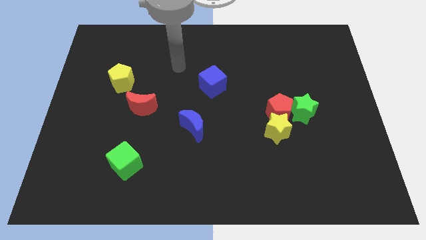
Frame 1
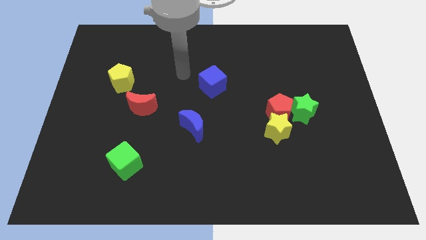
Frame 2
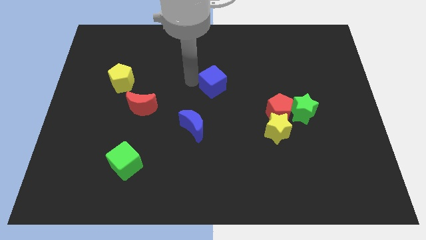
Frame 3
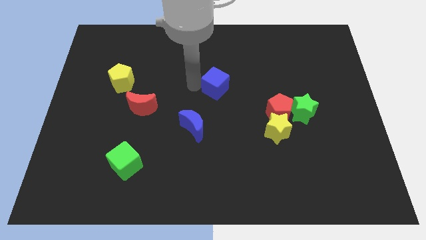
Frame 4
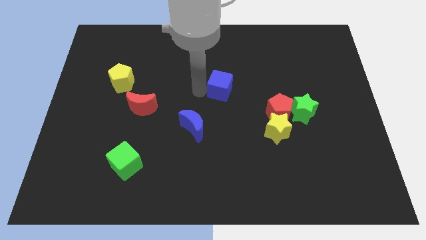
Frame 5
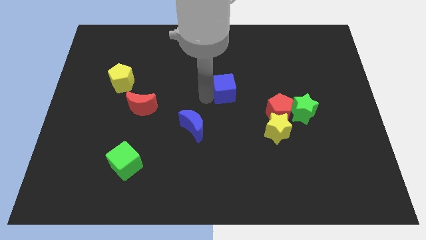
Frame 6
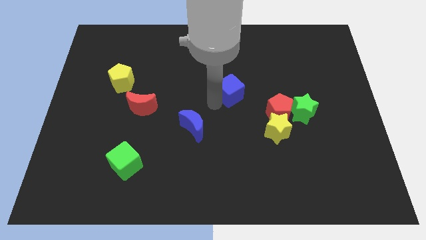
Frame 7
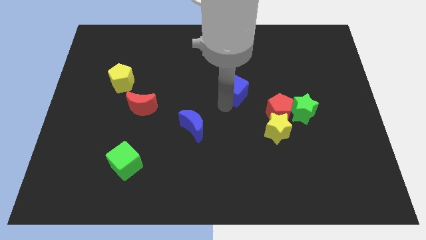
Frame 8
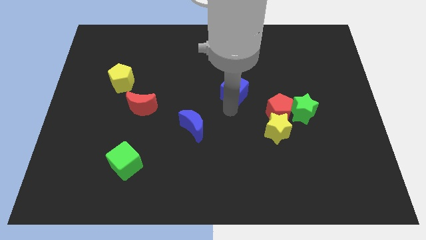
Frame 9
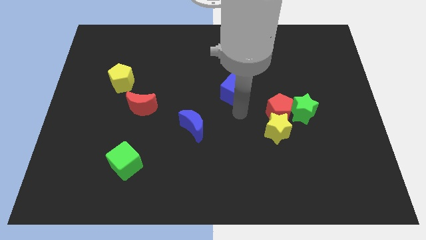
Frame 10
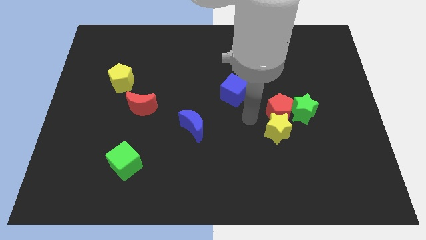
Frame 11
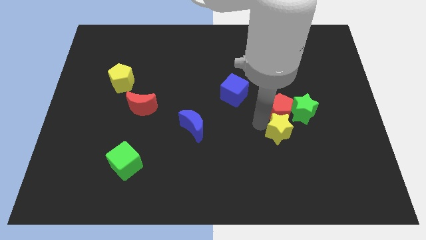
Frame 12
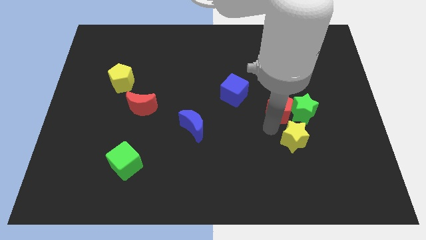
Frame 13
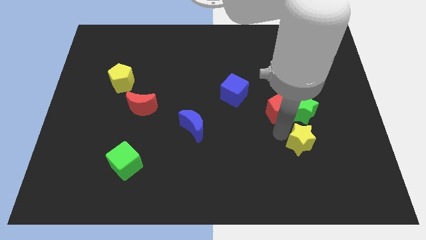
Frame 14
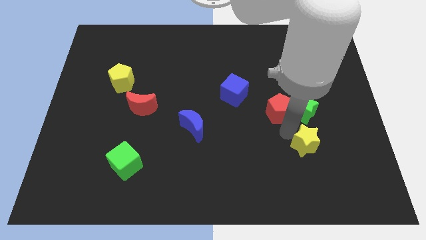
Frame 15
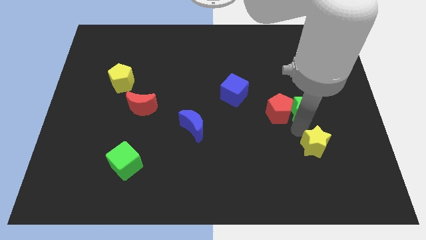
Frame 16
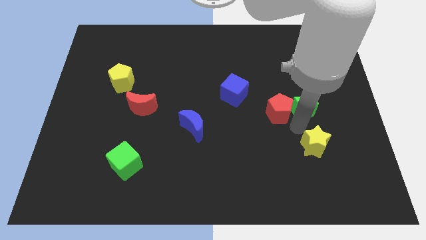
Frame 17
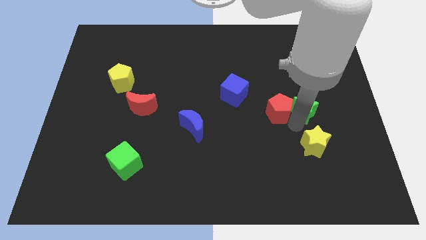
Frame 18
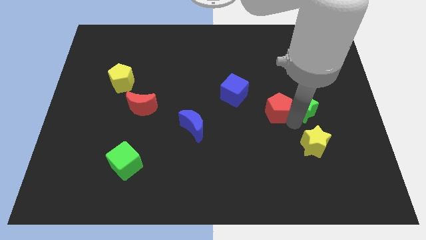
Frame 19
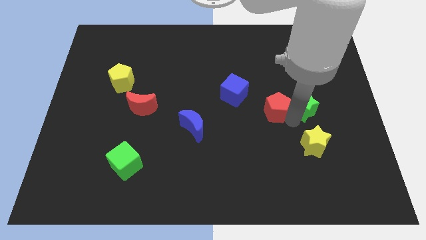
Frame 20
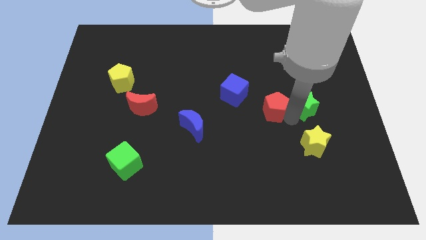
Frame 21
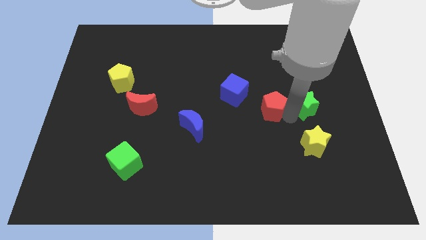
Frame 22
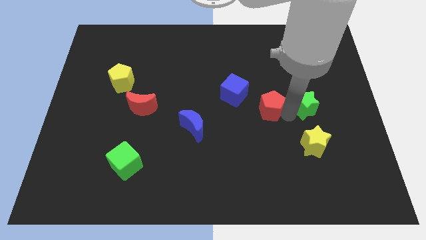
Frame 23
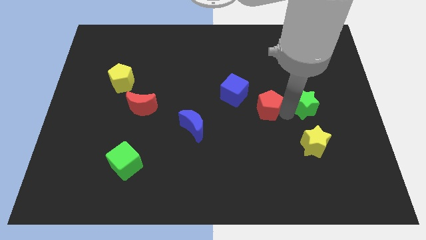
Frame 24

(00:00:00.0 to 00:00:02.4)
move the red pentagon away from the yellow star and green star

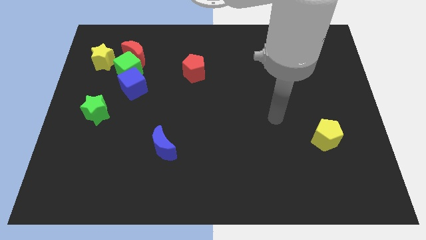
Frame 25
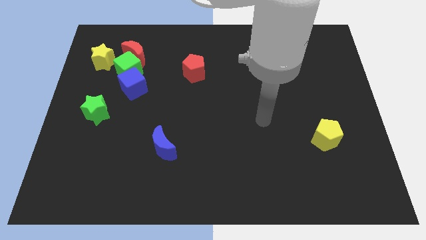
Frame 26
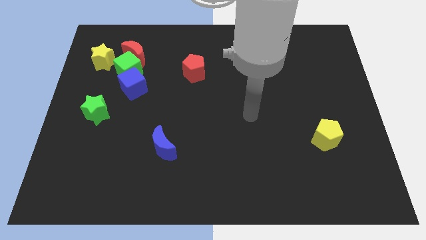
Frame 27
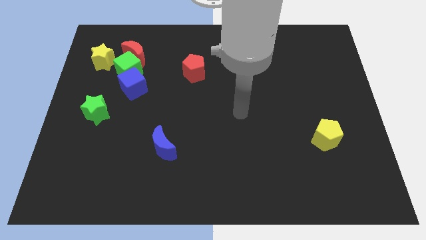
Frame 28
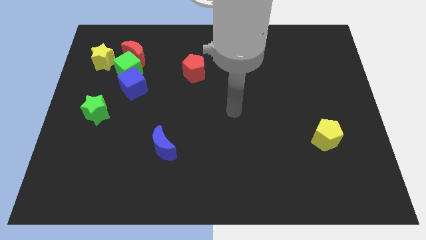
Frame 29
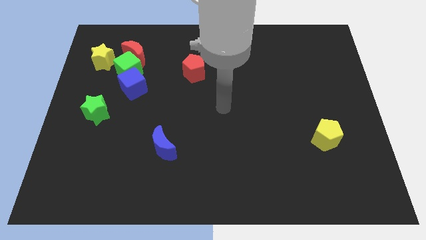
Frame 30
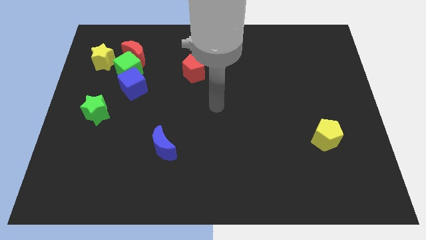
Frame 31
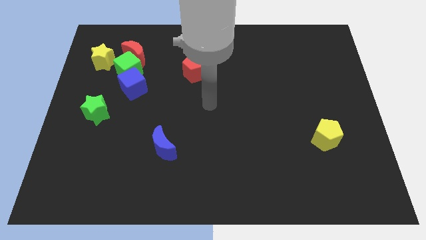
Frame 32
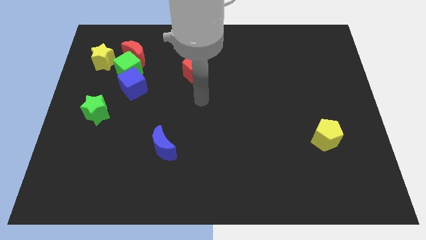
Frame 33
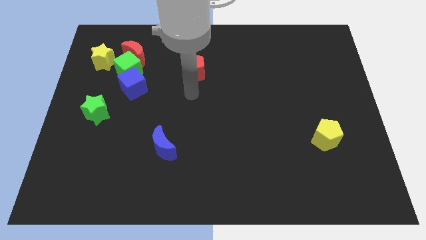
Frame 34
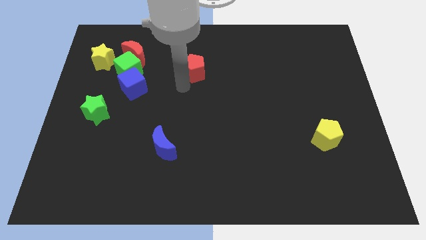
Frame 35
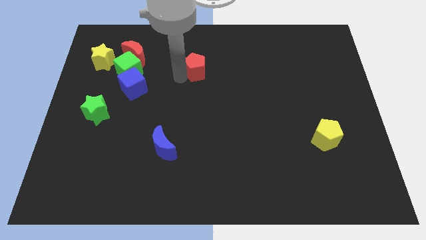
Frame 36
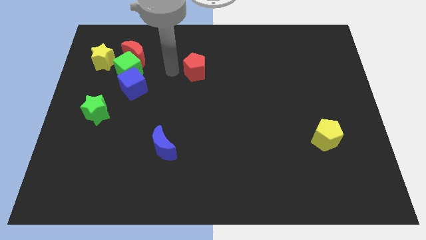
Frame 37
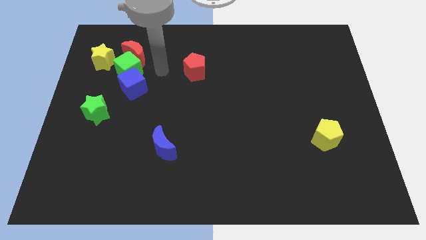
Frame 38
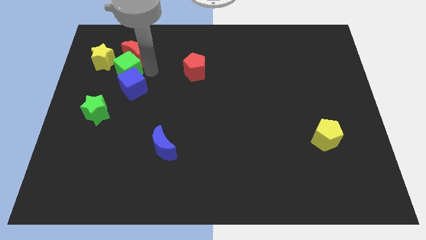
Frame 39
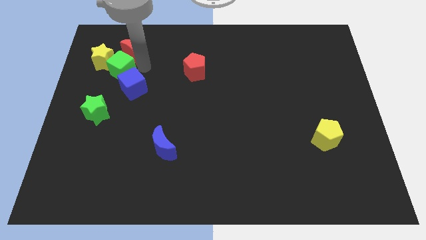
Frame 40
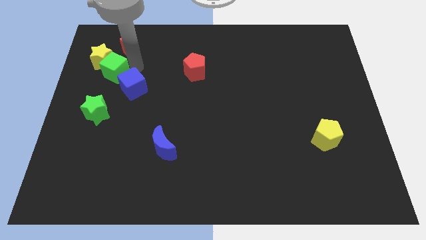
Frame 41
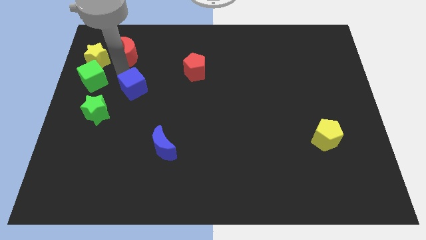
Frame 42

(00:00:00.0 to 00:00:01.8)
move the blue cube away from the green cube

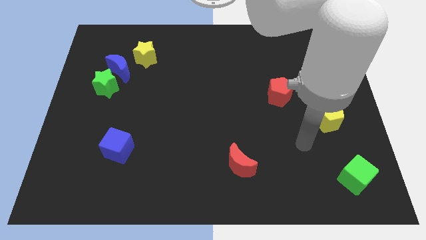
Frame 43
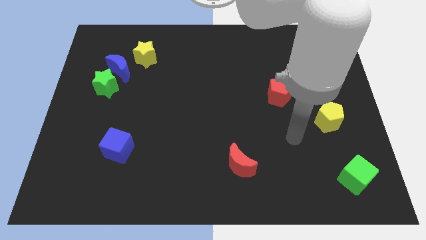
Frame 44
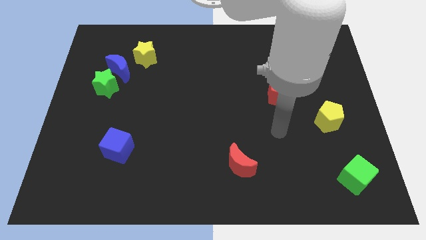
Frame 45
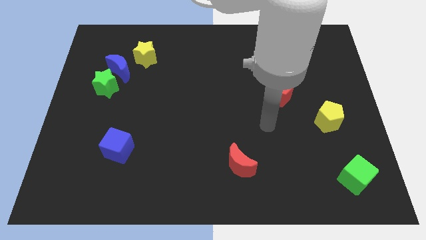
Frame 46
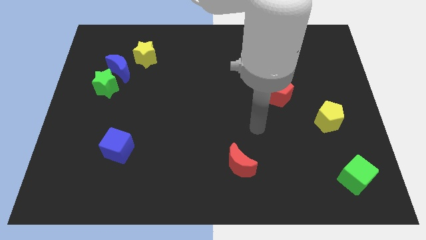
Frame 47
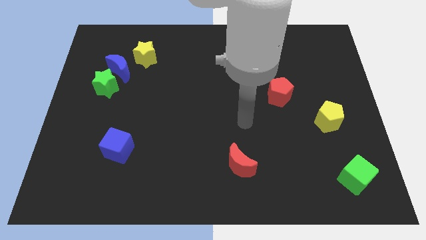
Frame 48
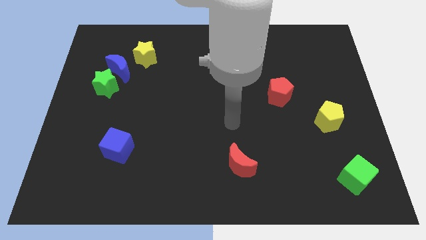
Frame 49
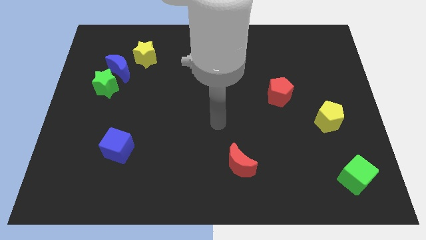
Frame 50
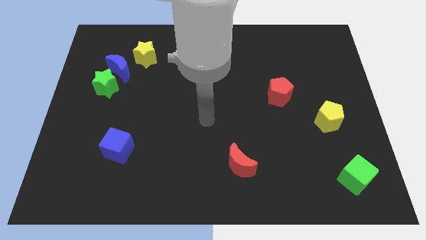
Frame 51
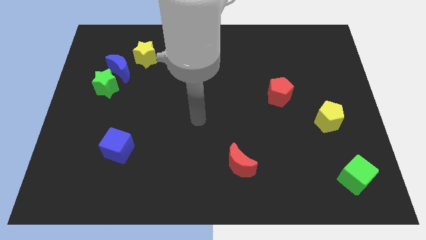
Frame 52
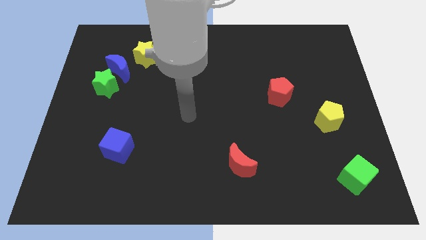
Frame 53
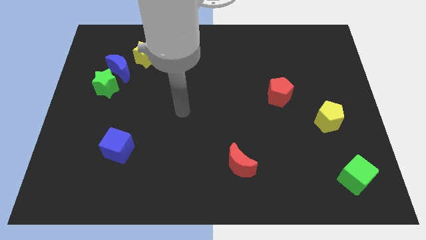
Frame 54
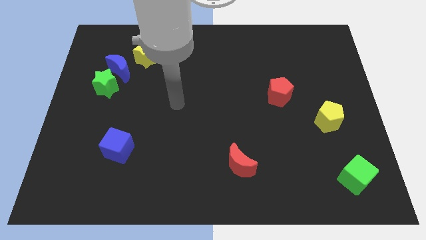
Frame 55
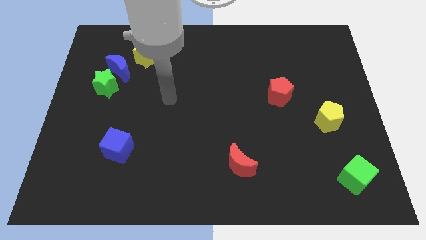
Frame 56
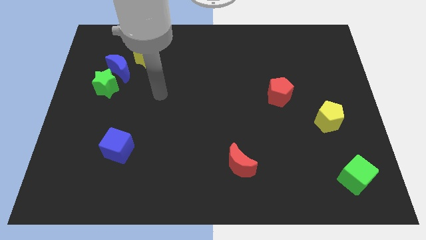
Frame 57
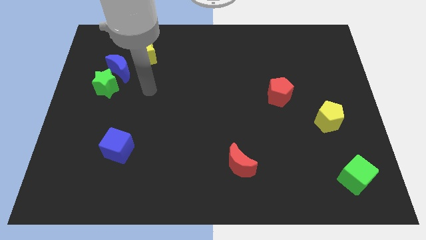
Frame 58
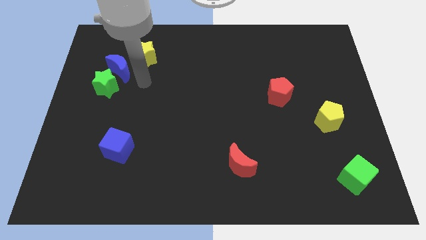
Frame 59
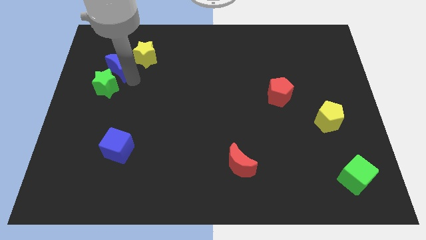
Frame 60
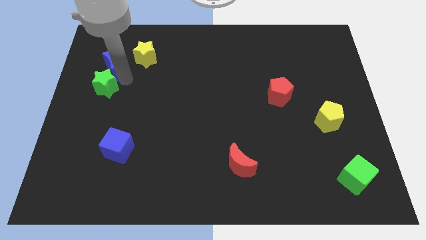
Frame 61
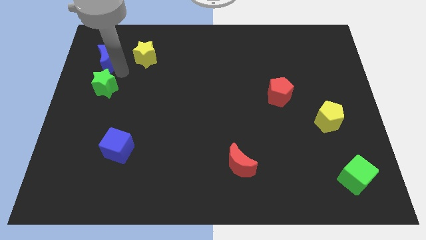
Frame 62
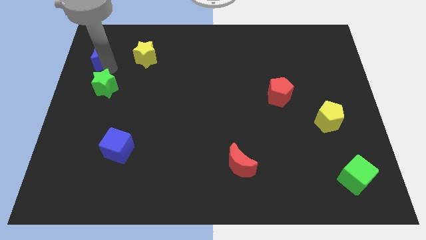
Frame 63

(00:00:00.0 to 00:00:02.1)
pull the green star apart from the blue moon

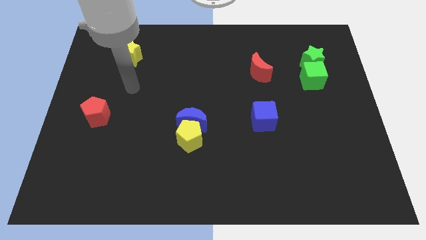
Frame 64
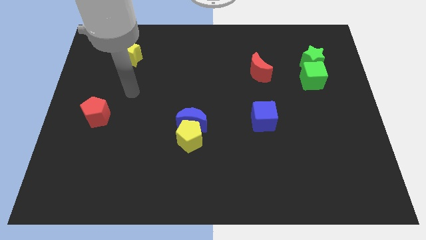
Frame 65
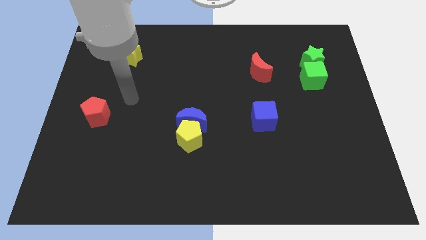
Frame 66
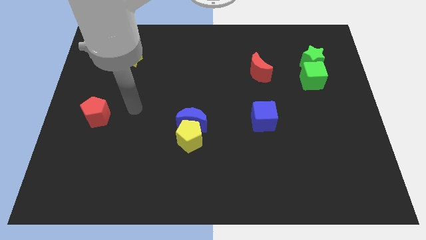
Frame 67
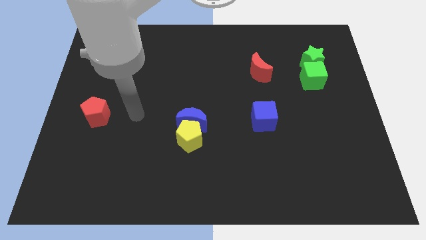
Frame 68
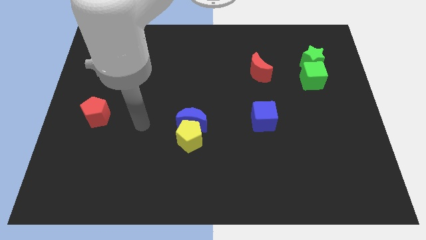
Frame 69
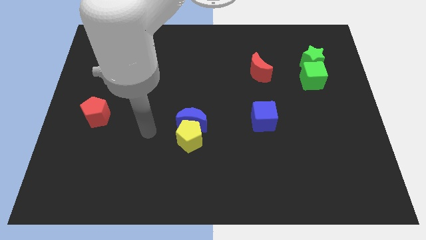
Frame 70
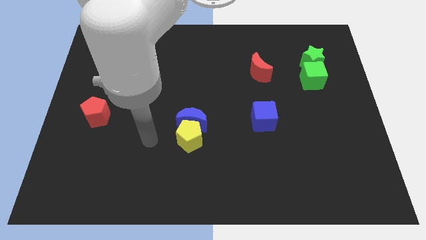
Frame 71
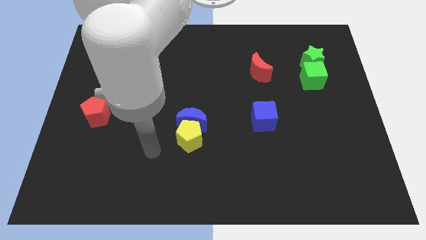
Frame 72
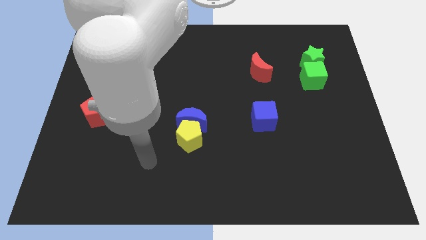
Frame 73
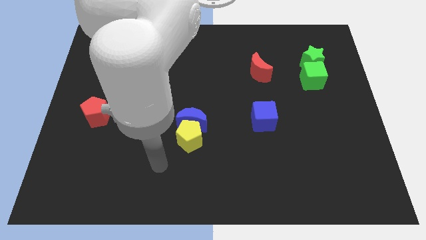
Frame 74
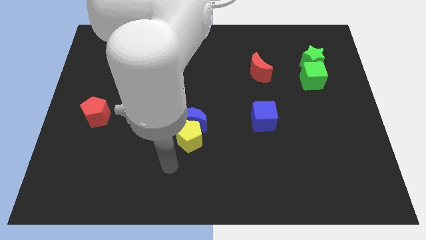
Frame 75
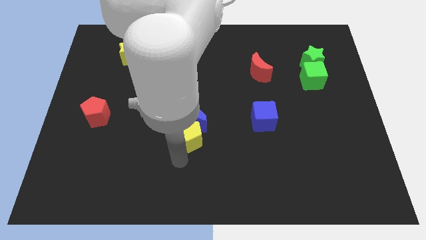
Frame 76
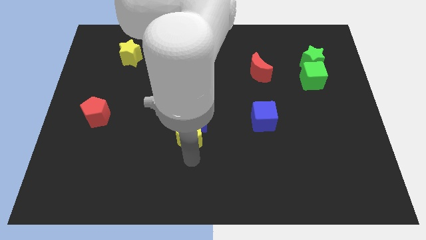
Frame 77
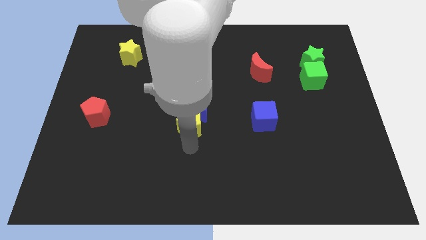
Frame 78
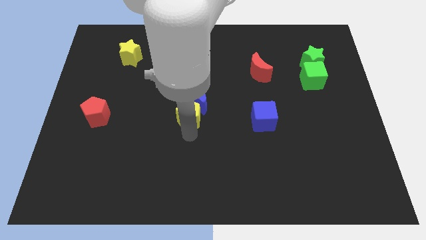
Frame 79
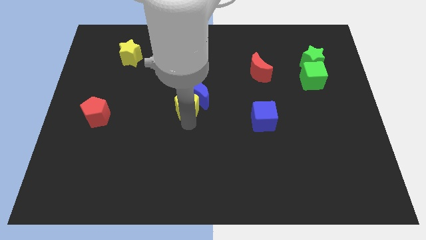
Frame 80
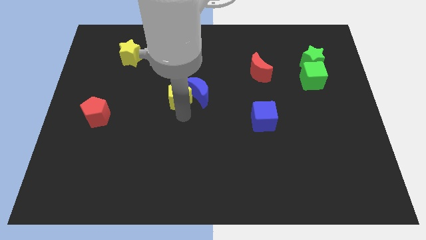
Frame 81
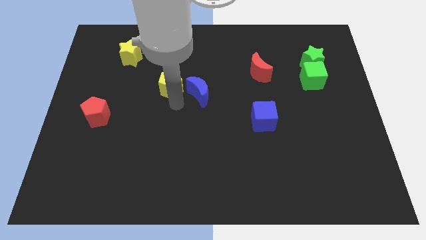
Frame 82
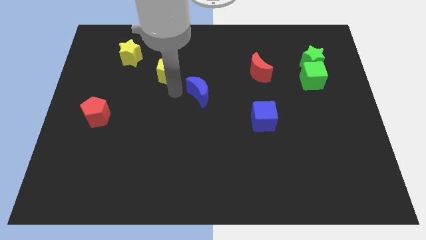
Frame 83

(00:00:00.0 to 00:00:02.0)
pull the blue moon apart from the yellow pentagon

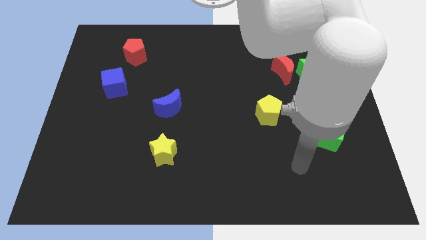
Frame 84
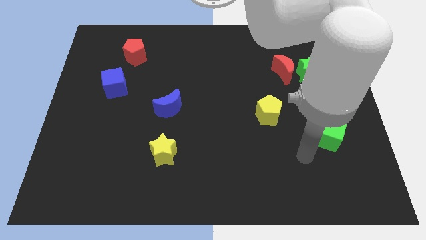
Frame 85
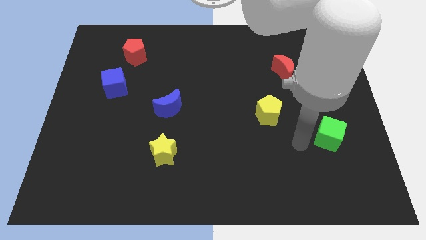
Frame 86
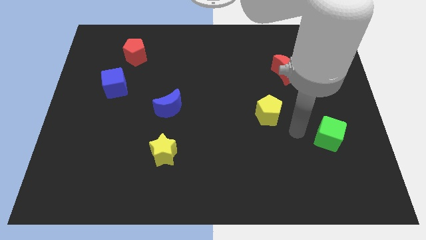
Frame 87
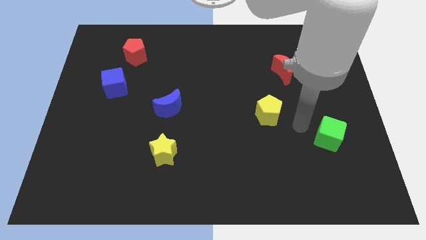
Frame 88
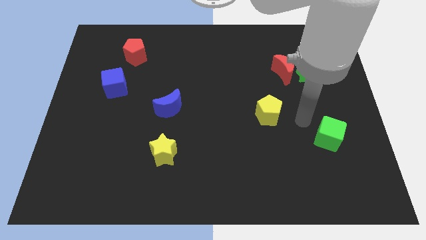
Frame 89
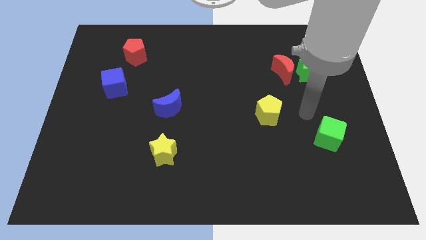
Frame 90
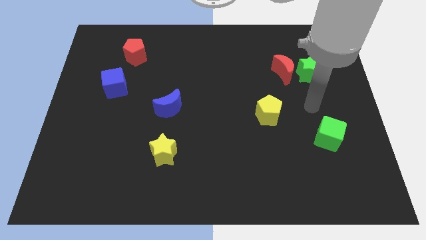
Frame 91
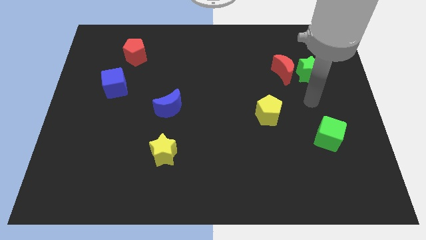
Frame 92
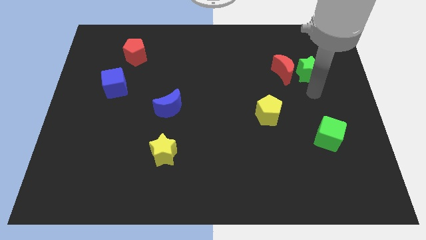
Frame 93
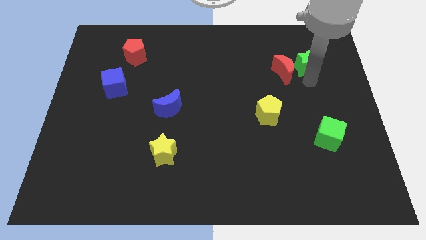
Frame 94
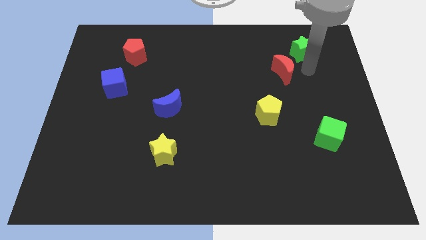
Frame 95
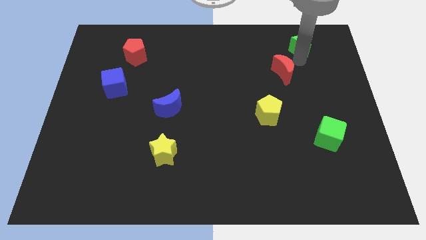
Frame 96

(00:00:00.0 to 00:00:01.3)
move the red moon away from the green star
